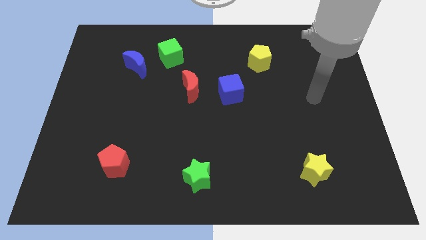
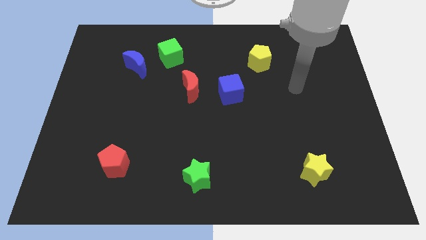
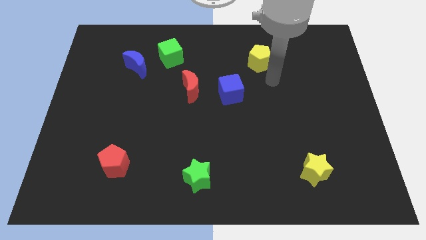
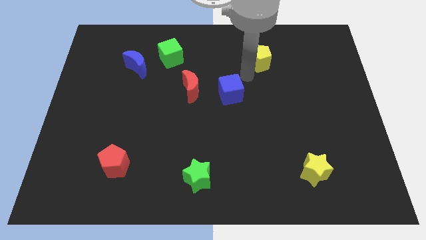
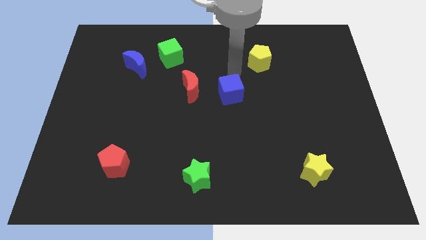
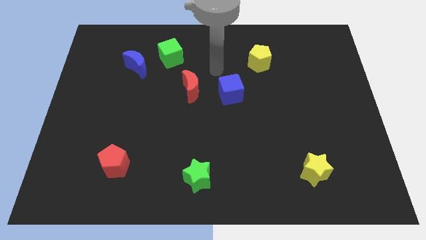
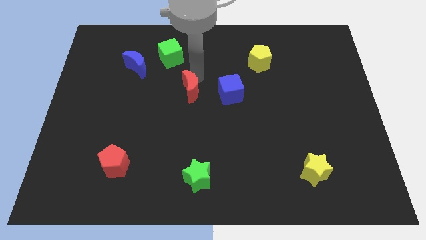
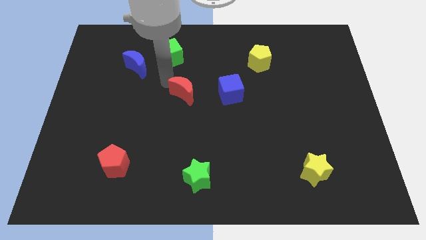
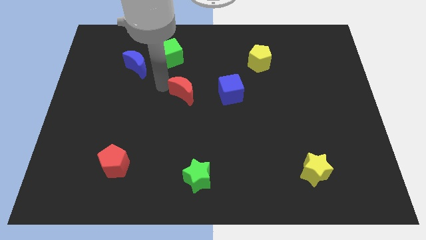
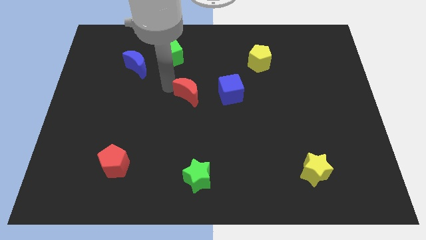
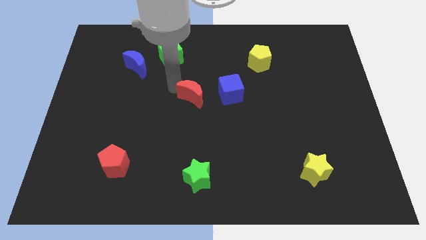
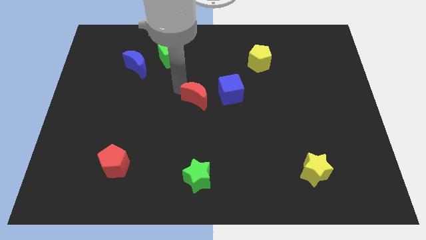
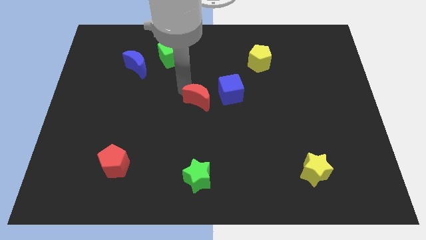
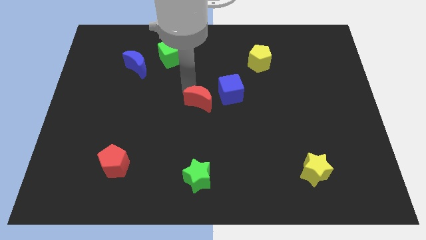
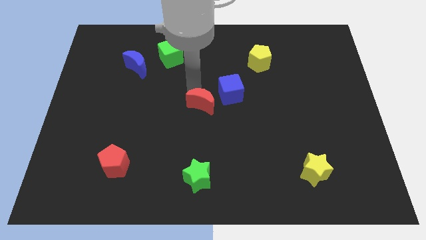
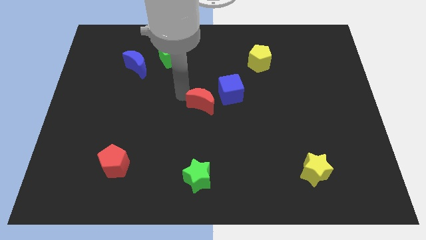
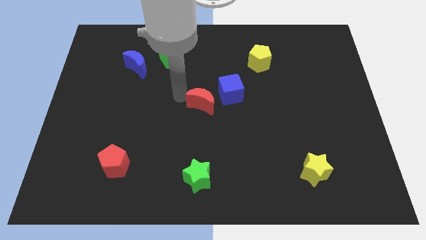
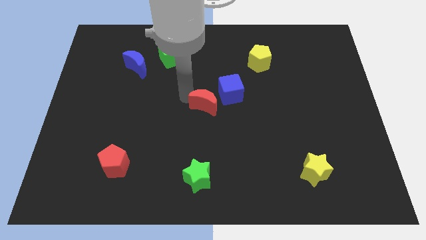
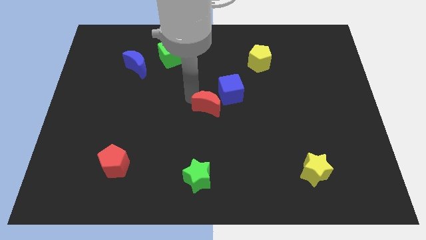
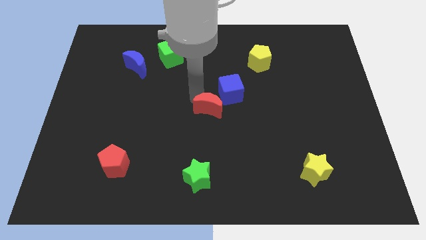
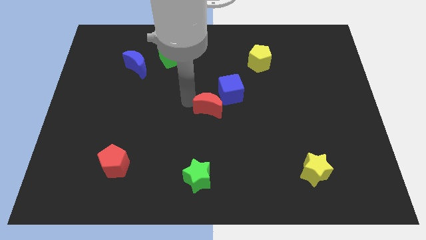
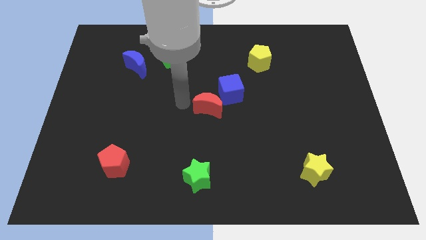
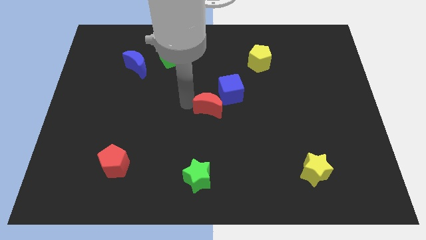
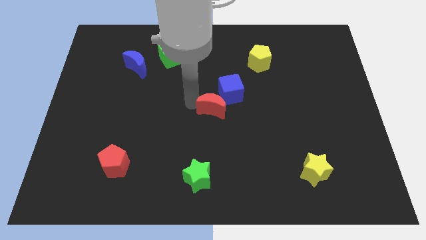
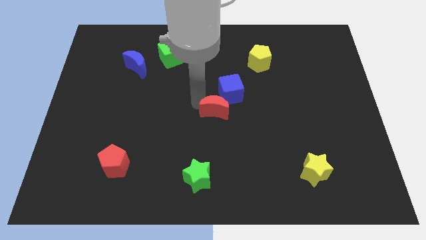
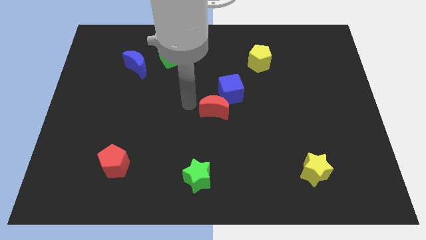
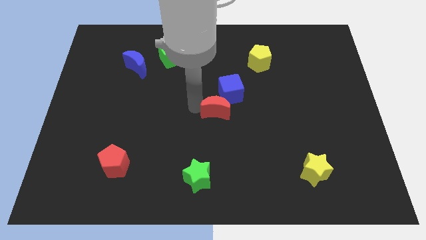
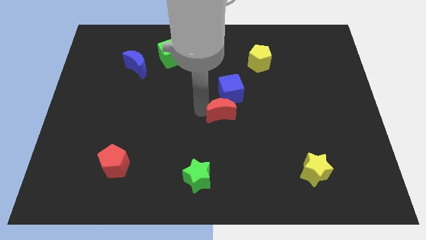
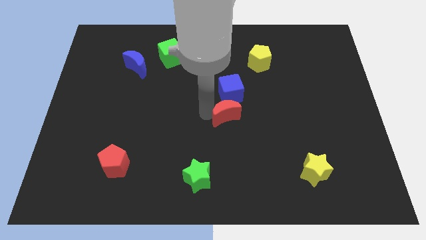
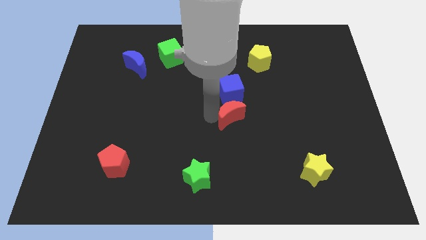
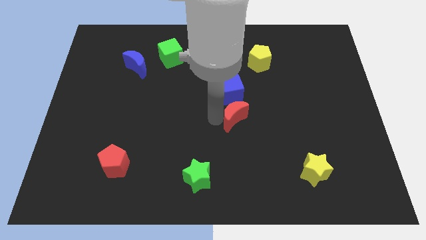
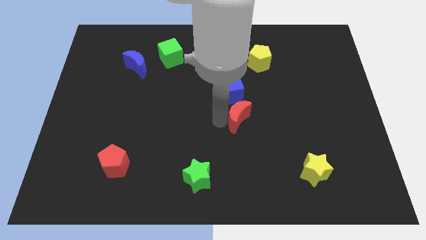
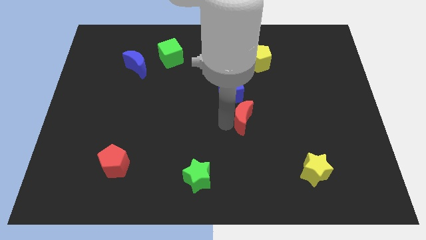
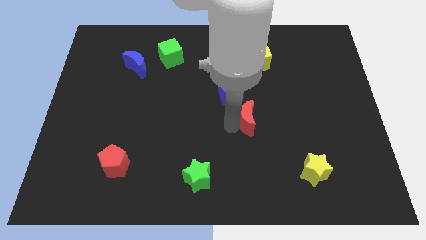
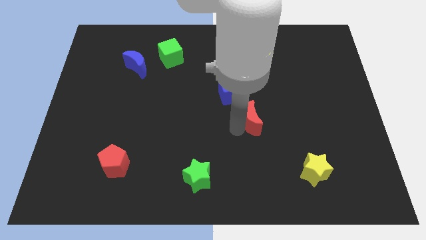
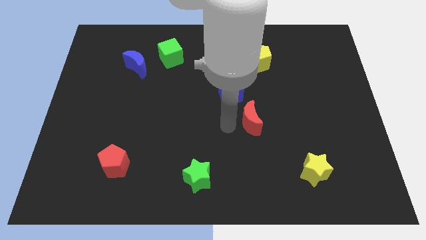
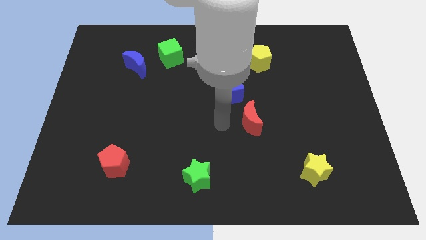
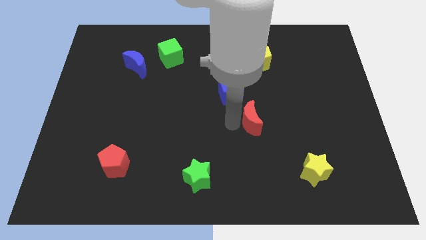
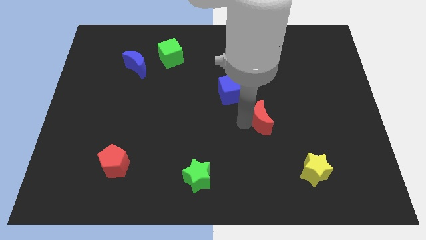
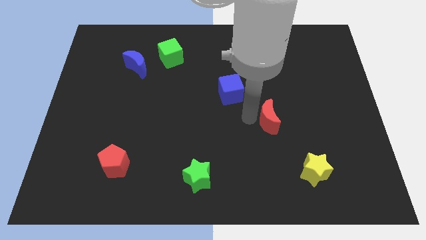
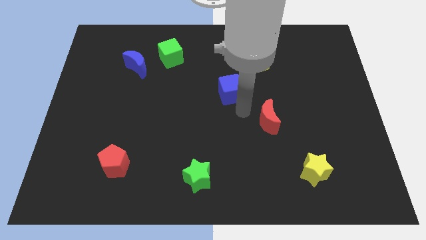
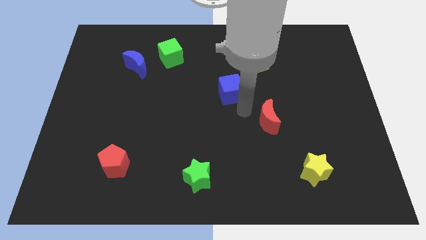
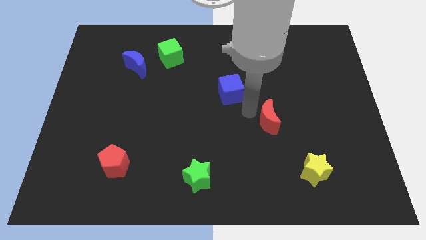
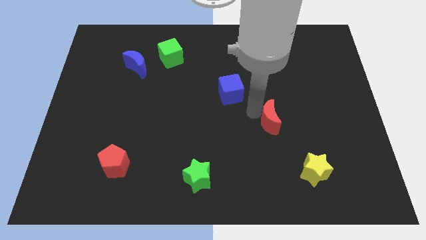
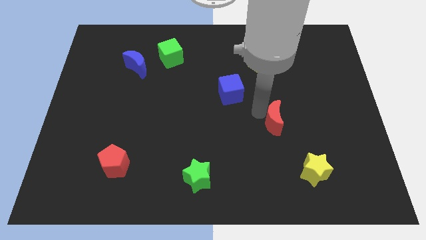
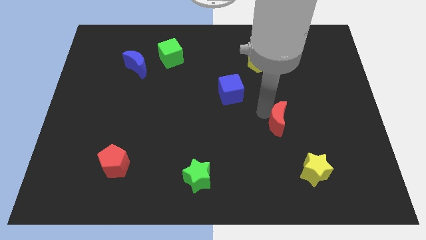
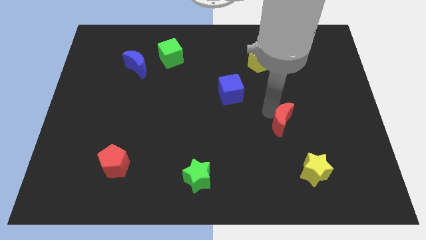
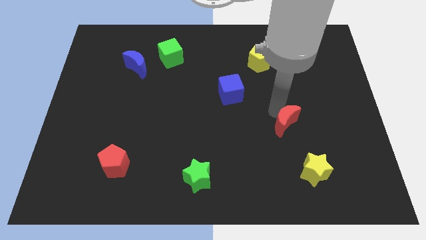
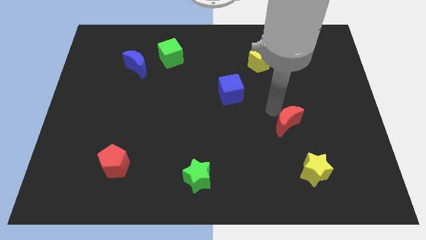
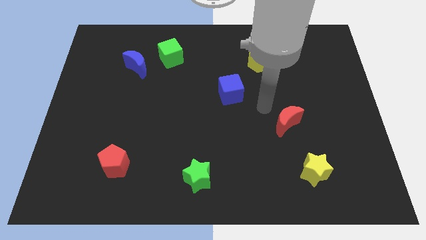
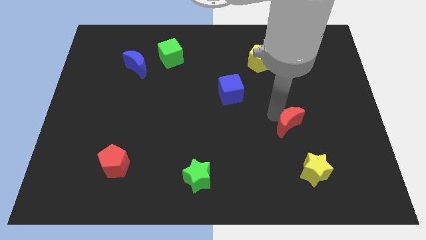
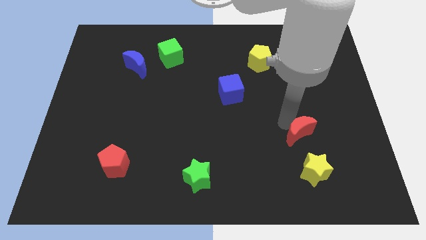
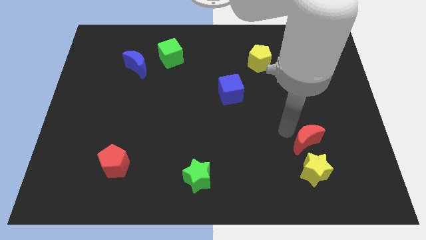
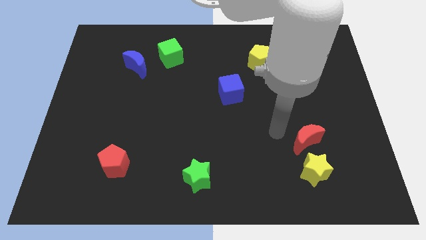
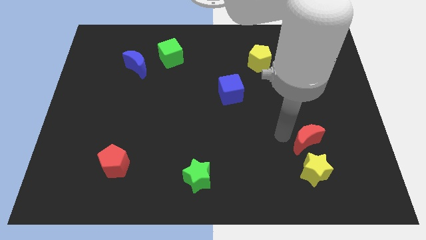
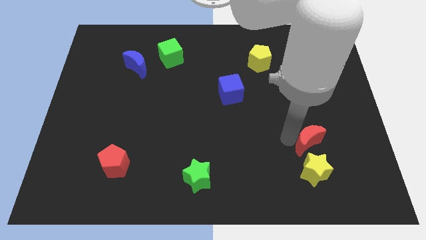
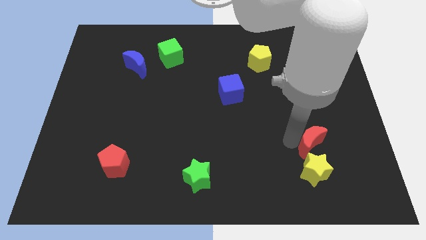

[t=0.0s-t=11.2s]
slide the red moon to the top right side of the yellow star

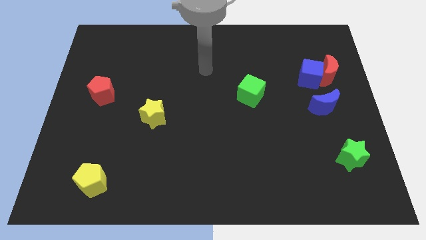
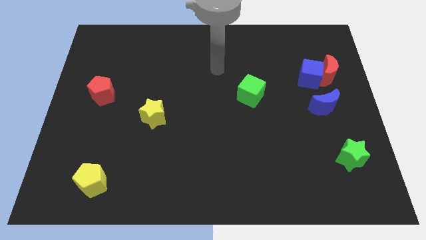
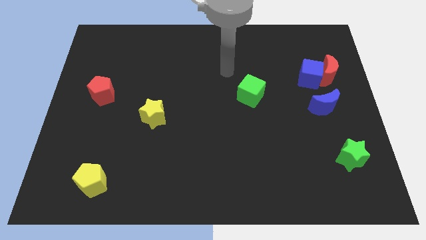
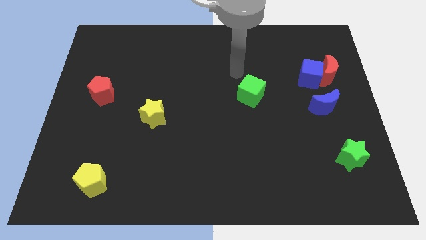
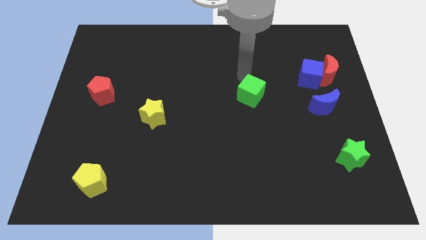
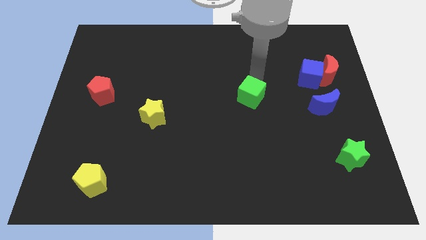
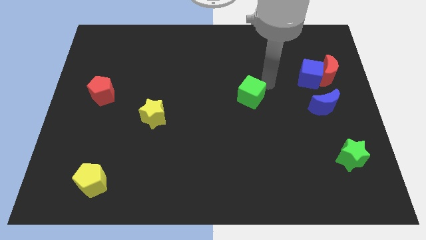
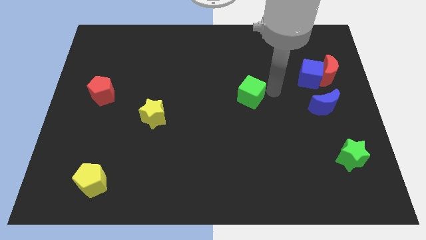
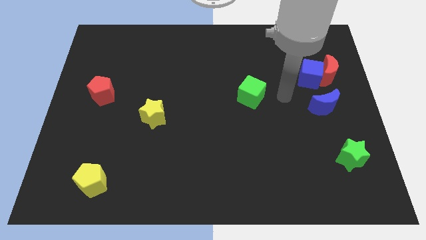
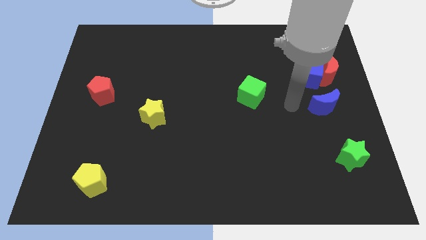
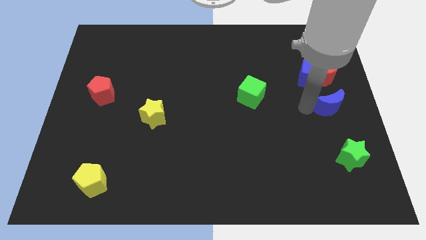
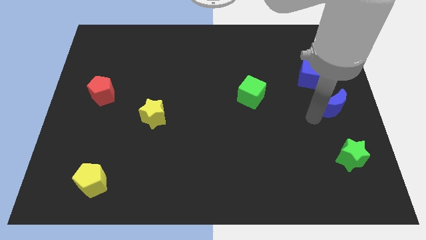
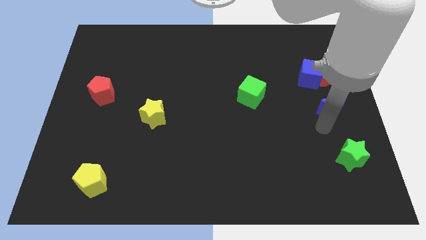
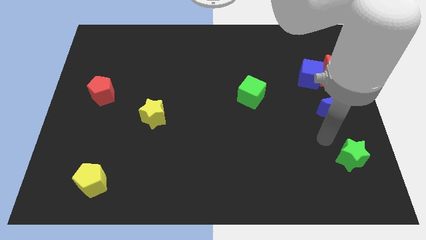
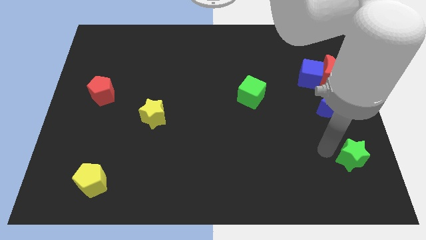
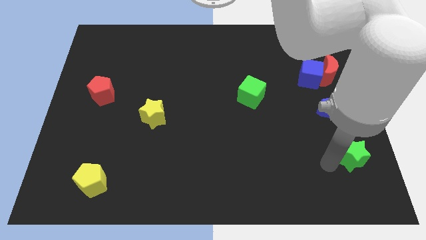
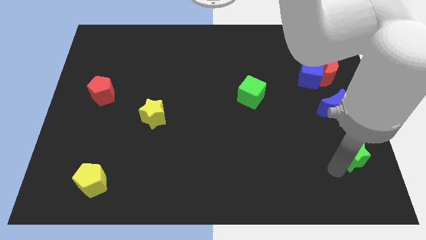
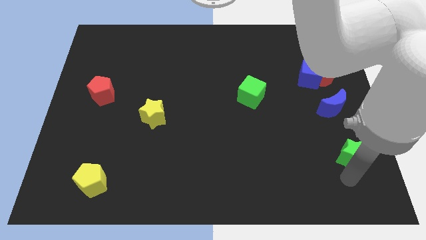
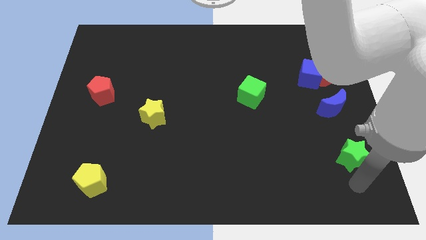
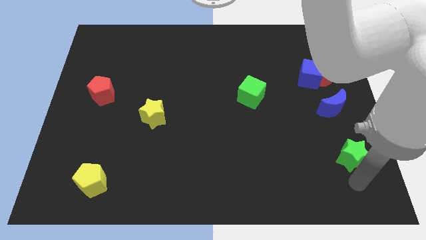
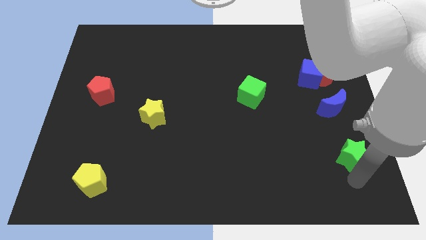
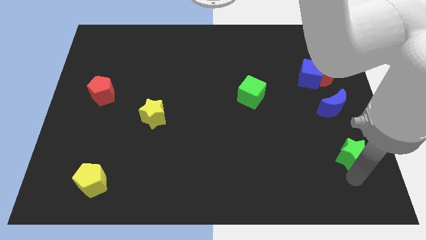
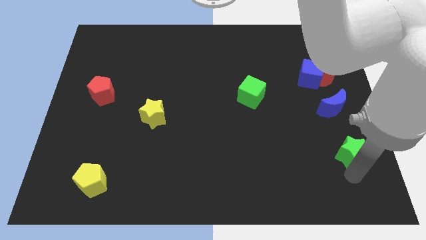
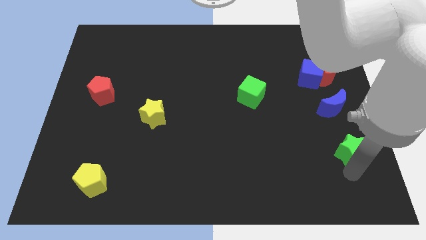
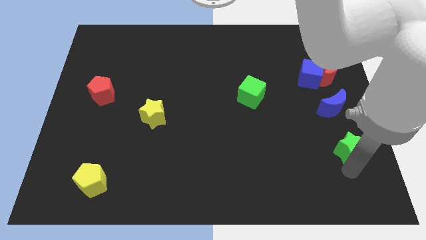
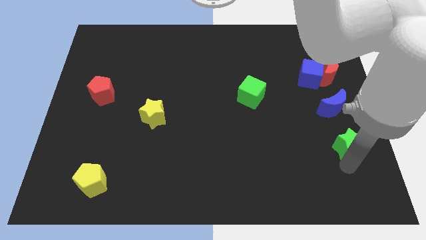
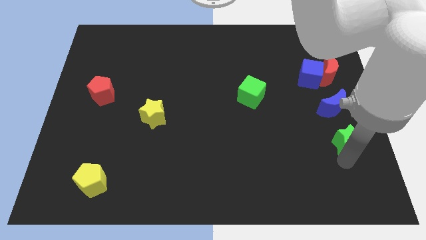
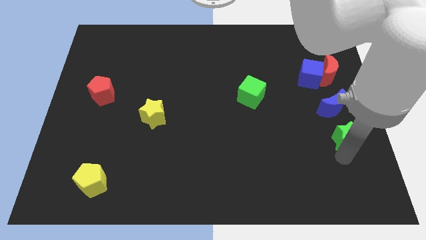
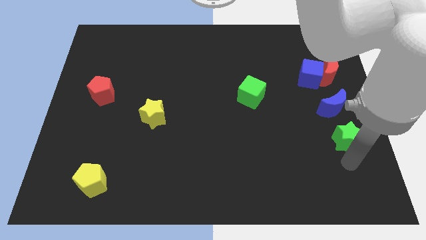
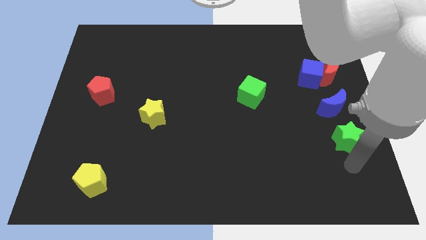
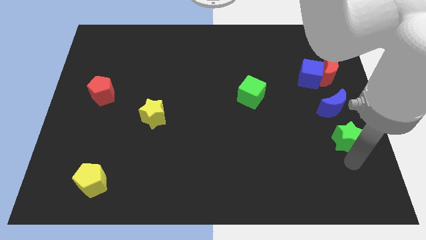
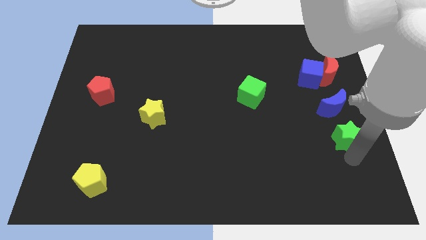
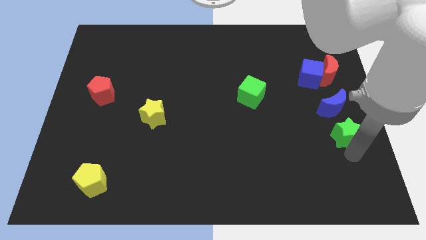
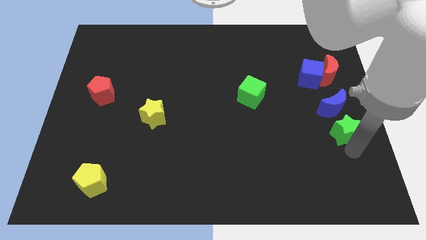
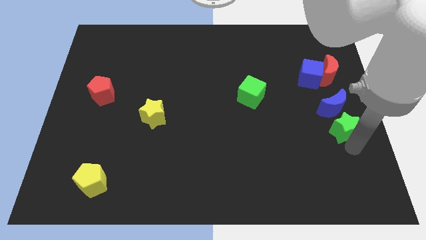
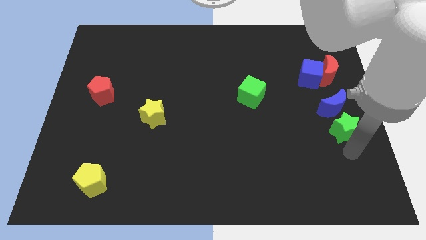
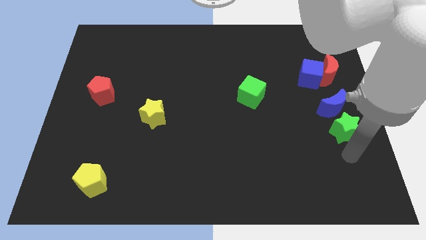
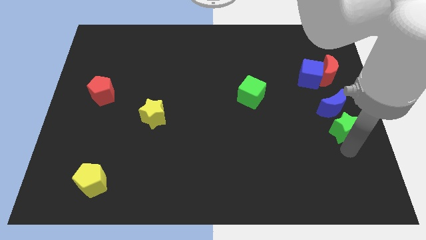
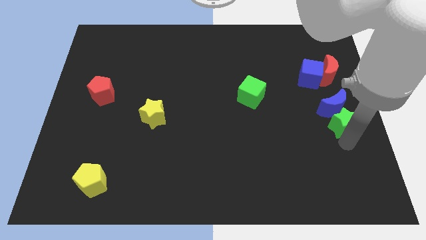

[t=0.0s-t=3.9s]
move the green star to the bottom side of the red moon
